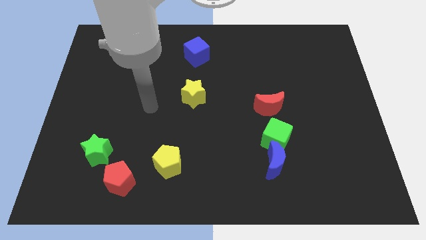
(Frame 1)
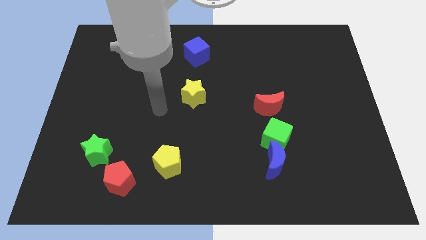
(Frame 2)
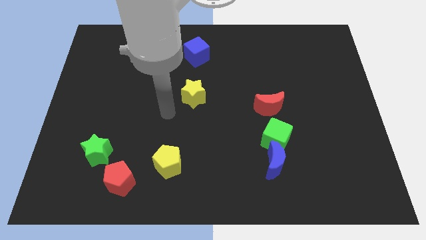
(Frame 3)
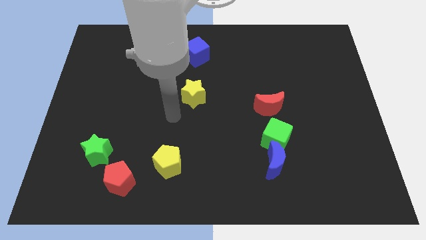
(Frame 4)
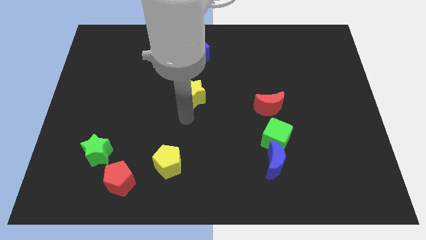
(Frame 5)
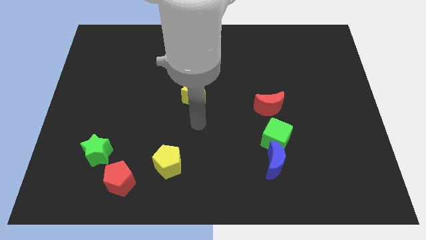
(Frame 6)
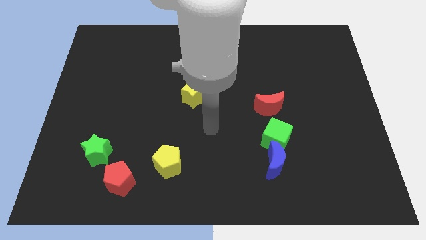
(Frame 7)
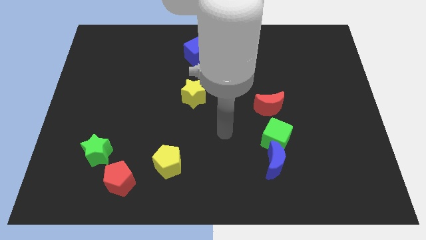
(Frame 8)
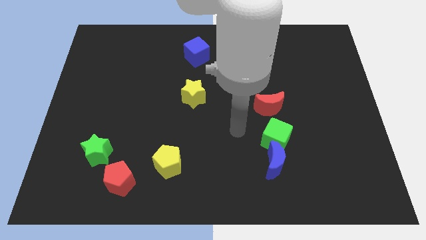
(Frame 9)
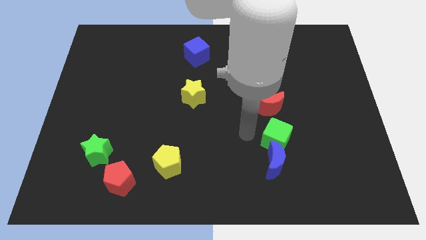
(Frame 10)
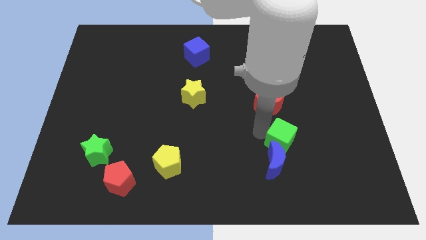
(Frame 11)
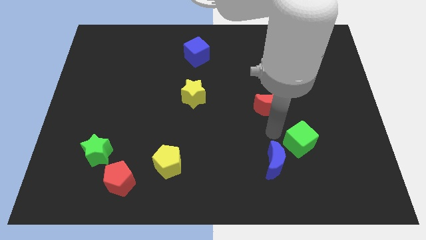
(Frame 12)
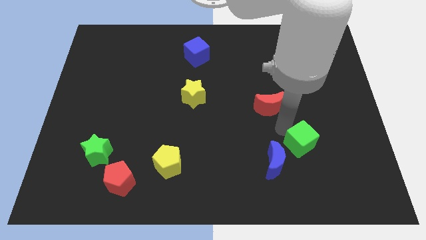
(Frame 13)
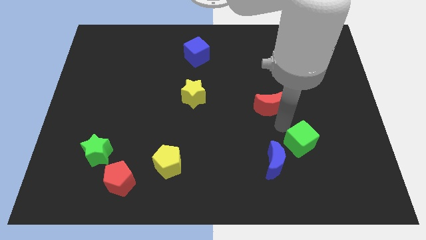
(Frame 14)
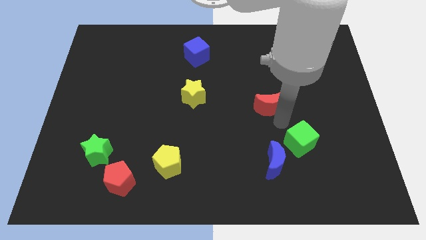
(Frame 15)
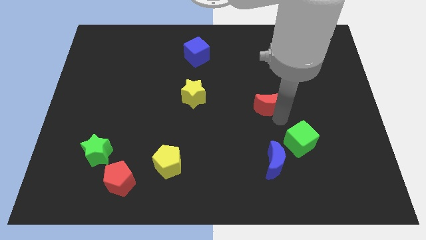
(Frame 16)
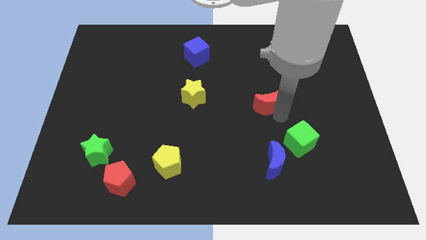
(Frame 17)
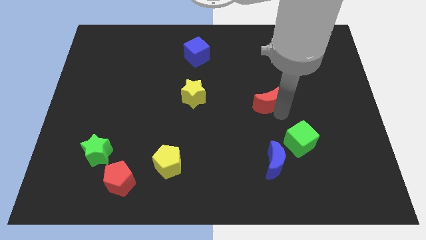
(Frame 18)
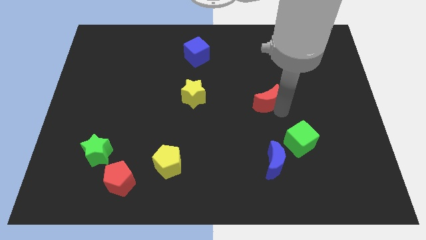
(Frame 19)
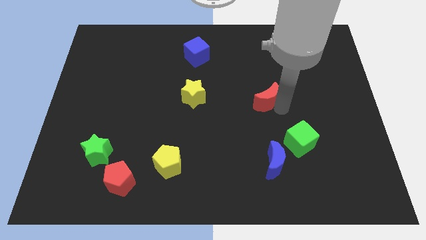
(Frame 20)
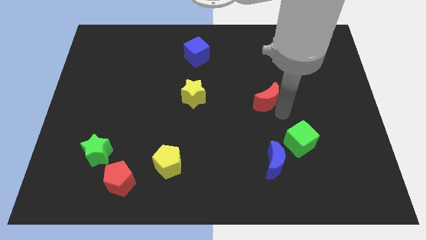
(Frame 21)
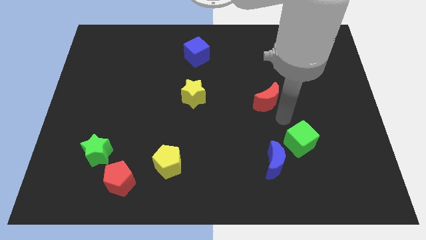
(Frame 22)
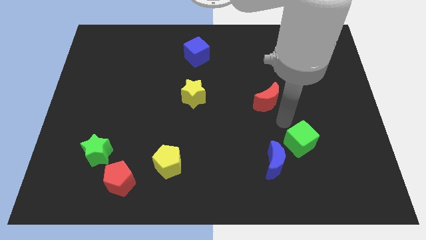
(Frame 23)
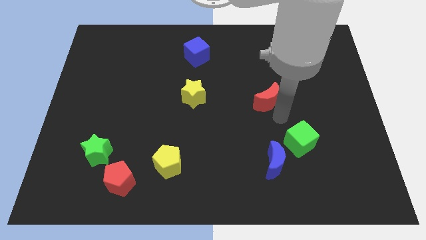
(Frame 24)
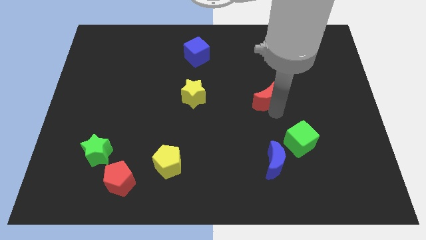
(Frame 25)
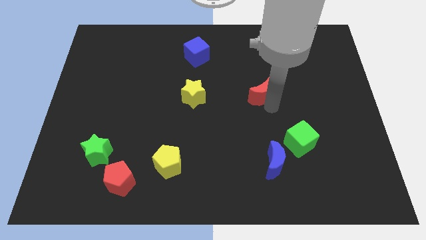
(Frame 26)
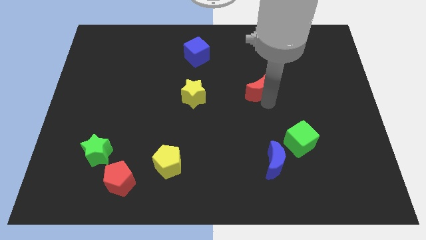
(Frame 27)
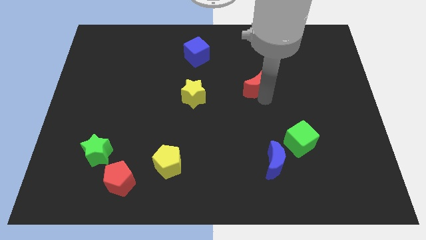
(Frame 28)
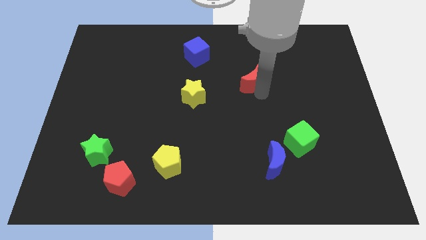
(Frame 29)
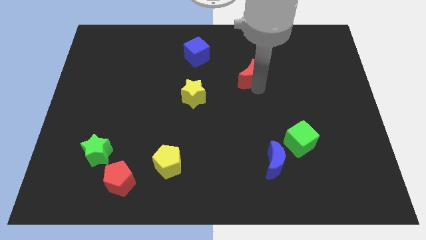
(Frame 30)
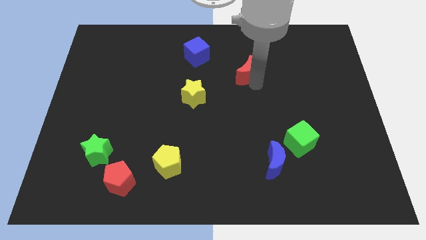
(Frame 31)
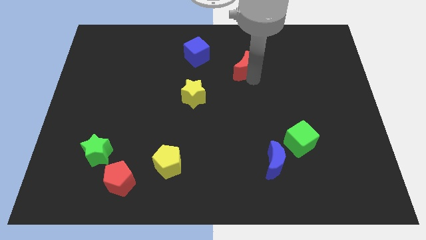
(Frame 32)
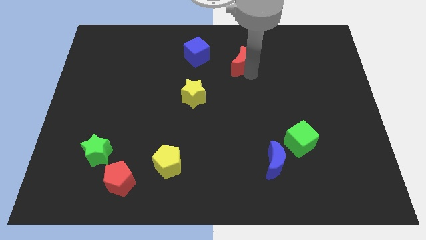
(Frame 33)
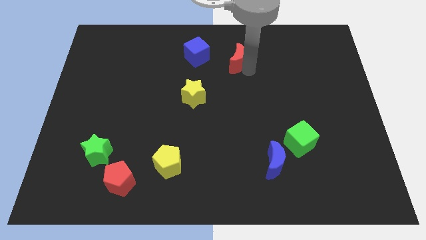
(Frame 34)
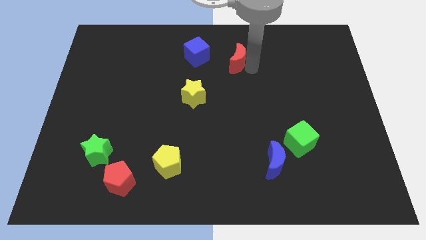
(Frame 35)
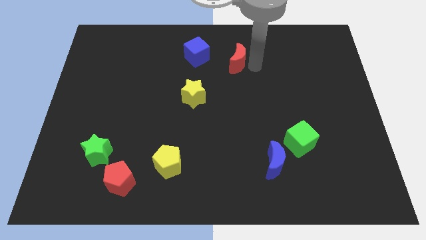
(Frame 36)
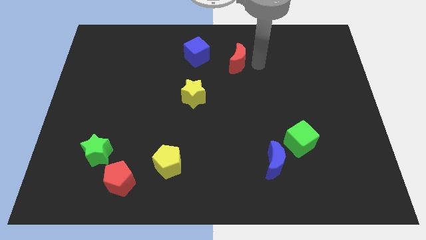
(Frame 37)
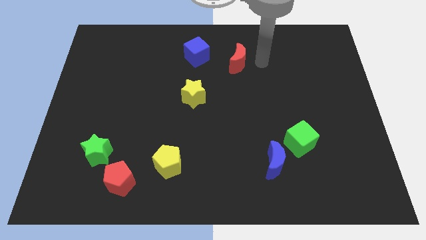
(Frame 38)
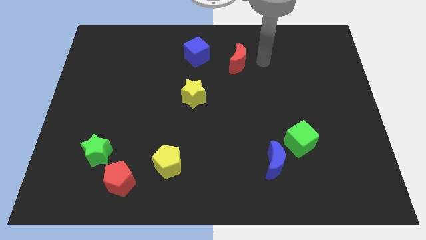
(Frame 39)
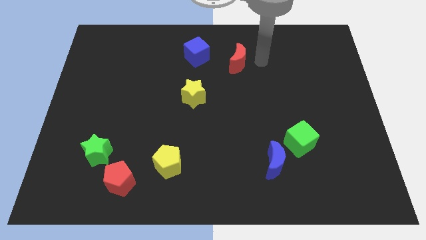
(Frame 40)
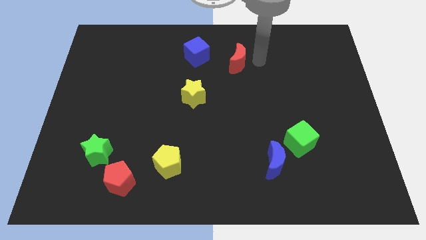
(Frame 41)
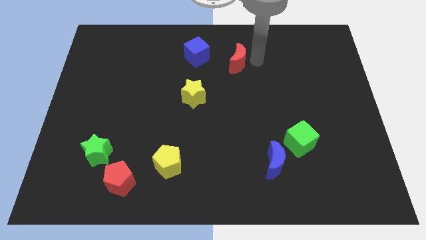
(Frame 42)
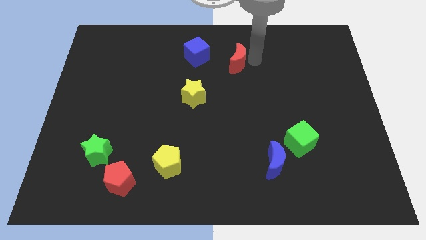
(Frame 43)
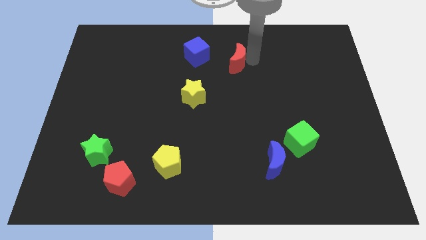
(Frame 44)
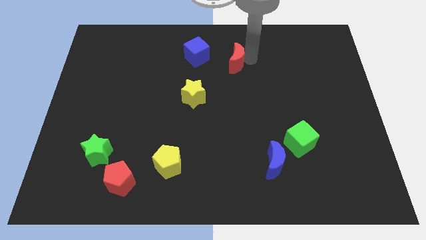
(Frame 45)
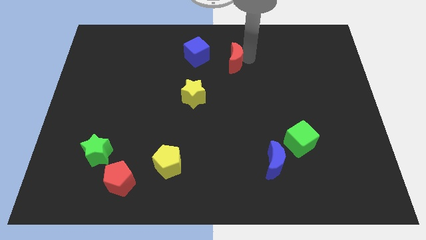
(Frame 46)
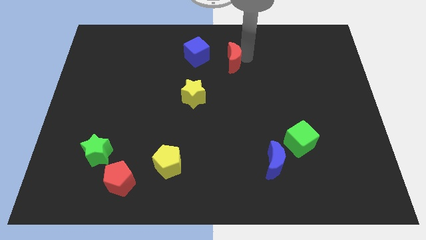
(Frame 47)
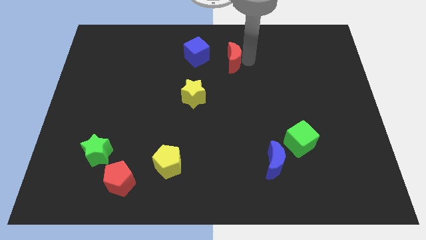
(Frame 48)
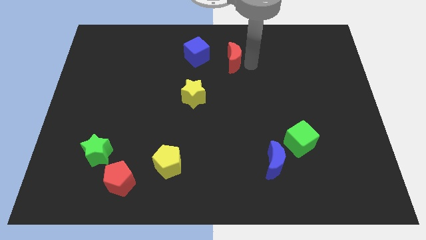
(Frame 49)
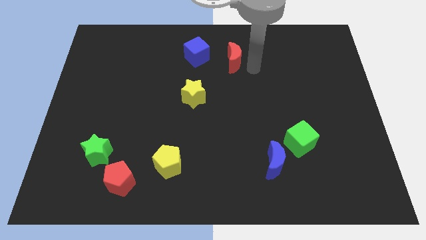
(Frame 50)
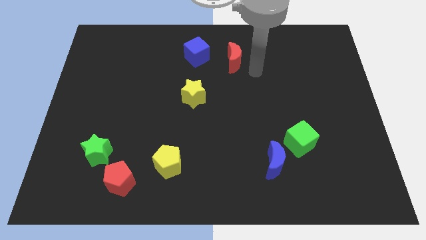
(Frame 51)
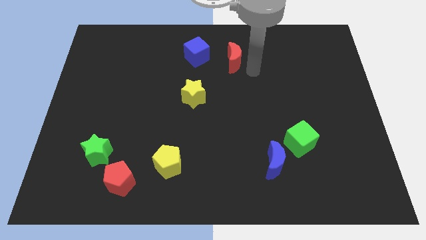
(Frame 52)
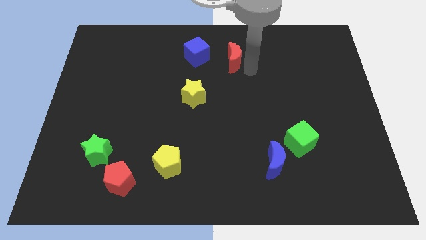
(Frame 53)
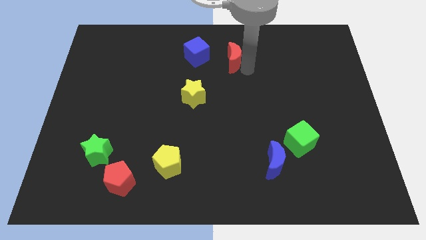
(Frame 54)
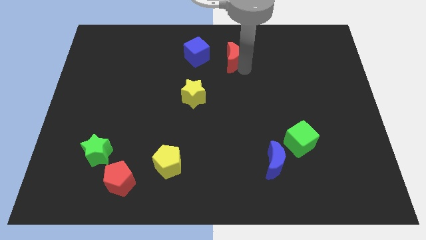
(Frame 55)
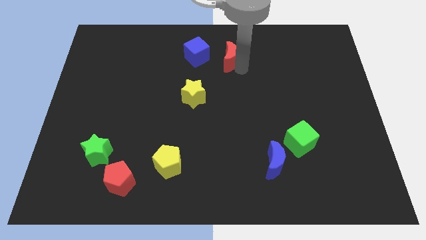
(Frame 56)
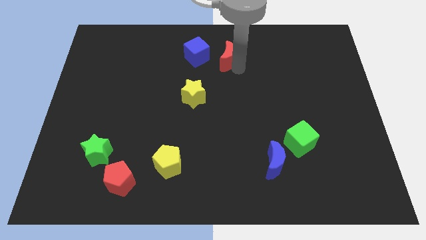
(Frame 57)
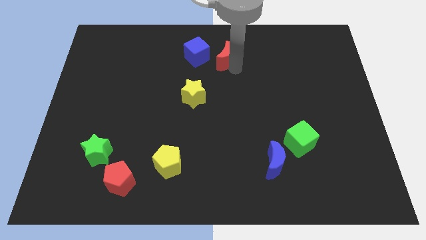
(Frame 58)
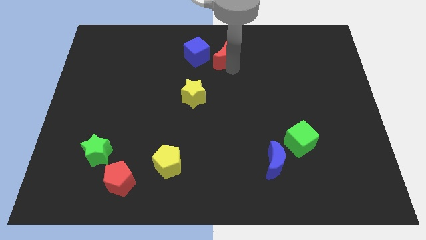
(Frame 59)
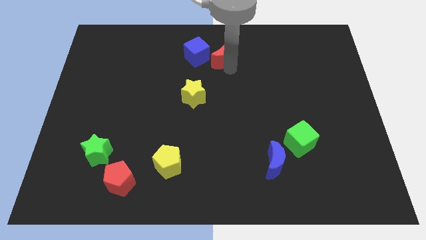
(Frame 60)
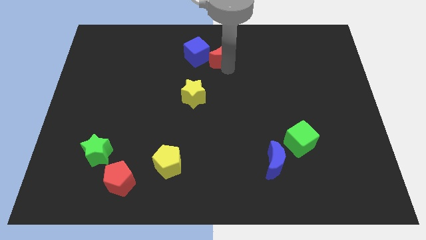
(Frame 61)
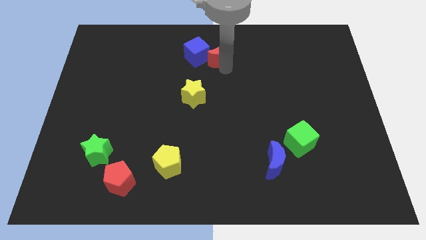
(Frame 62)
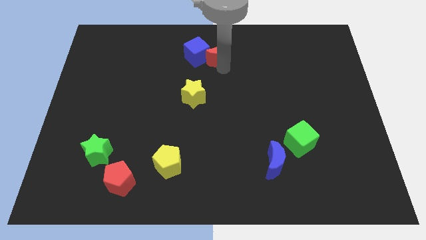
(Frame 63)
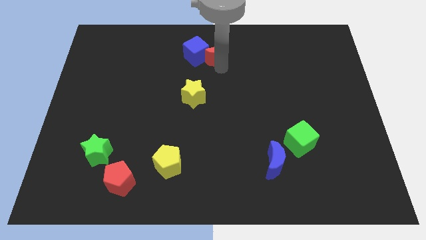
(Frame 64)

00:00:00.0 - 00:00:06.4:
put the red moon to the top side
